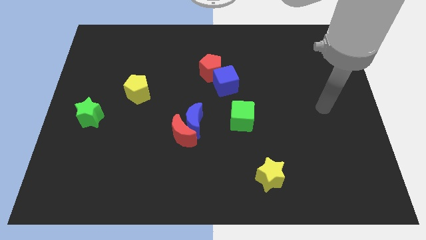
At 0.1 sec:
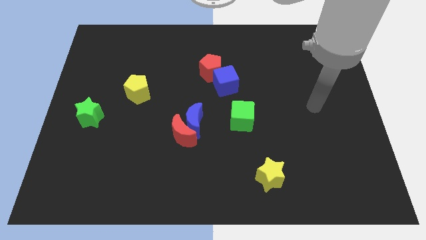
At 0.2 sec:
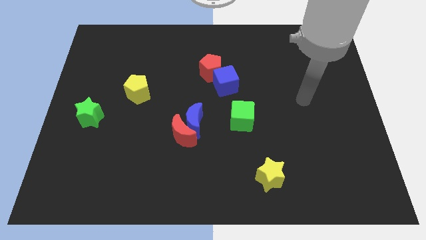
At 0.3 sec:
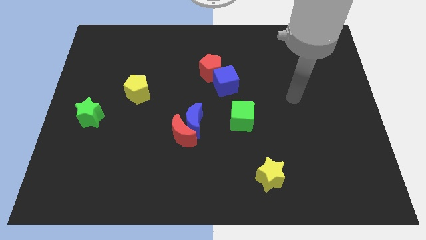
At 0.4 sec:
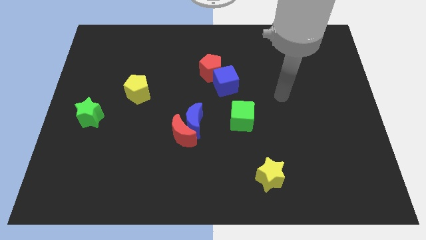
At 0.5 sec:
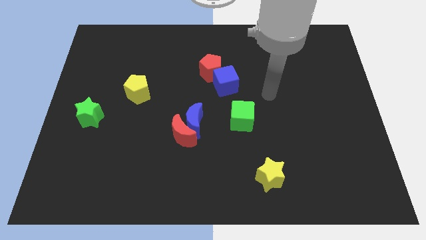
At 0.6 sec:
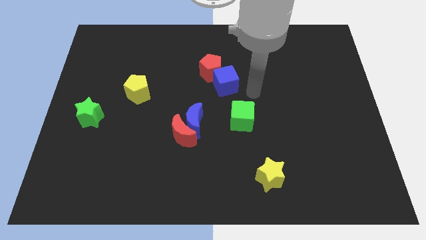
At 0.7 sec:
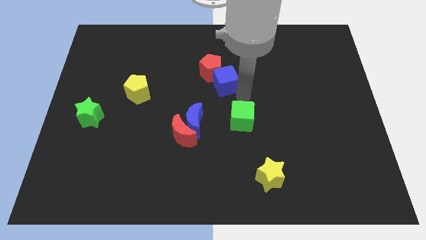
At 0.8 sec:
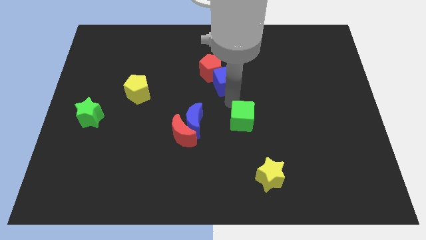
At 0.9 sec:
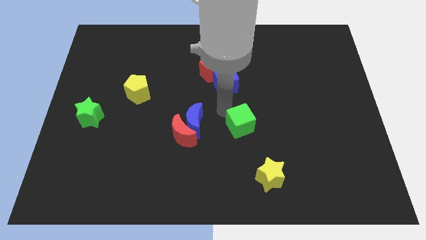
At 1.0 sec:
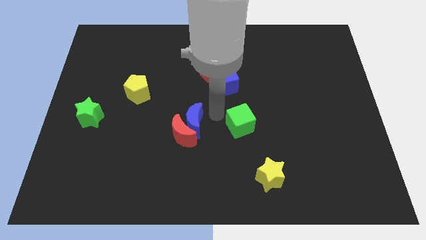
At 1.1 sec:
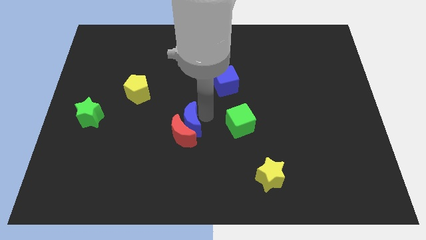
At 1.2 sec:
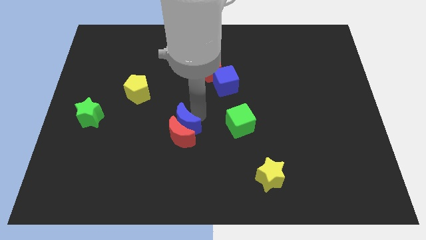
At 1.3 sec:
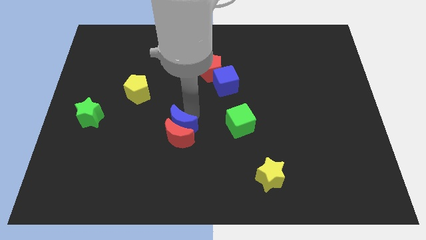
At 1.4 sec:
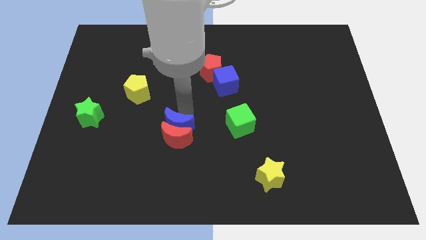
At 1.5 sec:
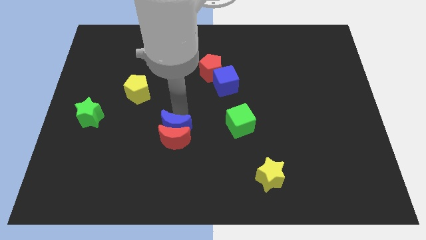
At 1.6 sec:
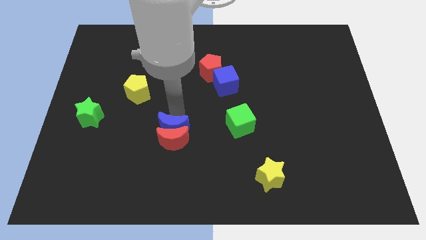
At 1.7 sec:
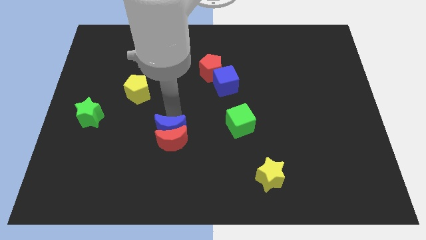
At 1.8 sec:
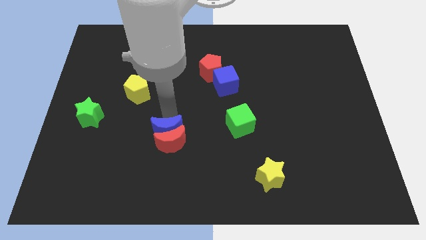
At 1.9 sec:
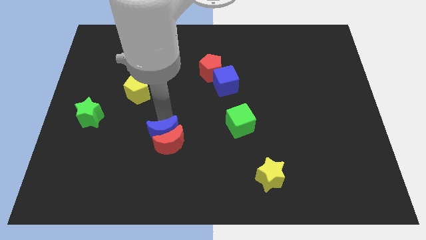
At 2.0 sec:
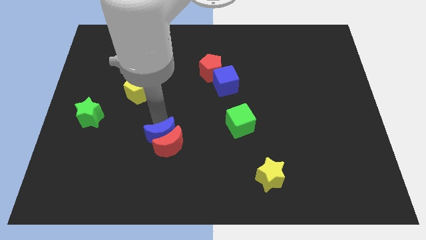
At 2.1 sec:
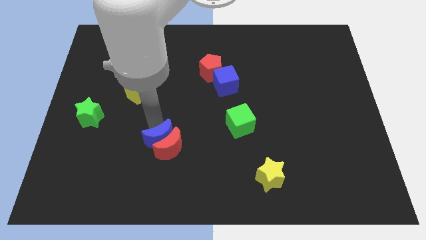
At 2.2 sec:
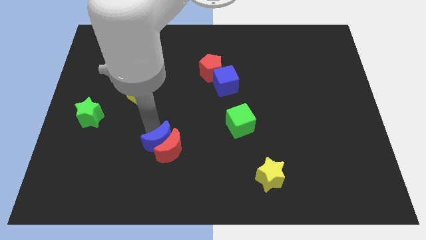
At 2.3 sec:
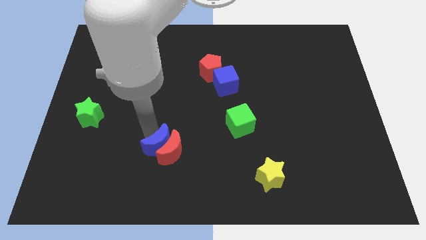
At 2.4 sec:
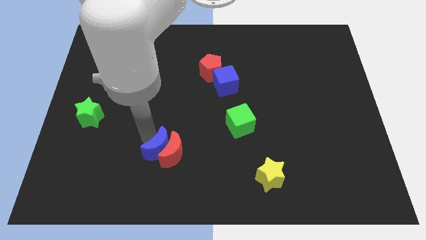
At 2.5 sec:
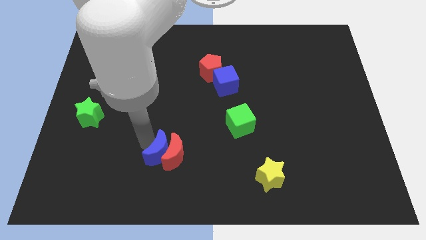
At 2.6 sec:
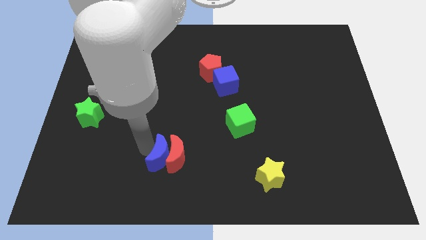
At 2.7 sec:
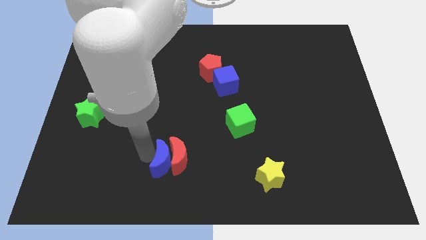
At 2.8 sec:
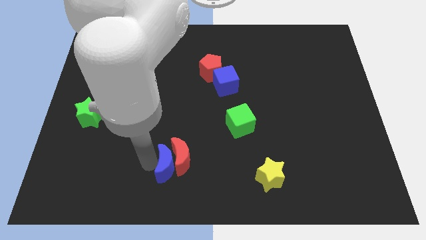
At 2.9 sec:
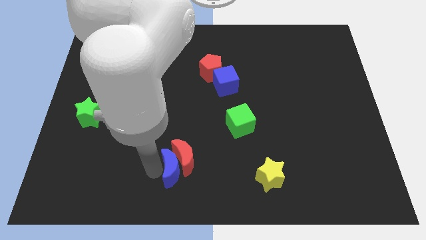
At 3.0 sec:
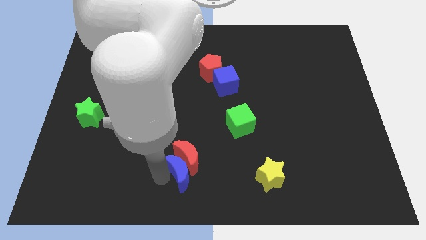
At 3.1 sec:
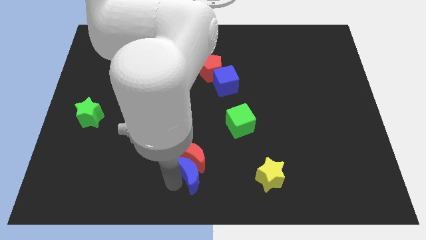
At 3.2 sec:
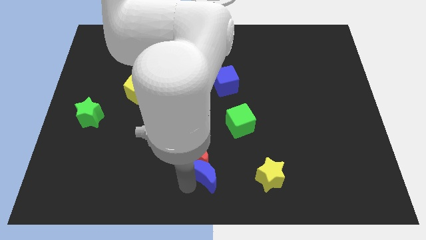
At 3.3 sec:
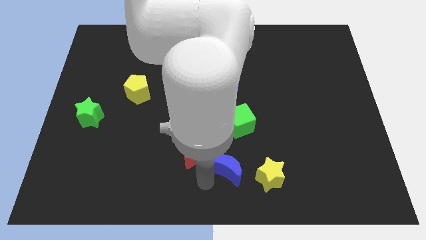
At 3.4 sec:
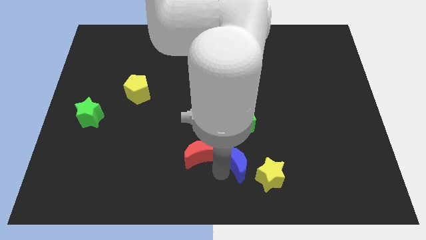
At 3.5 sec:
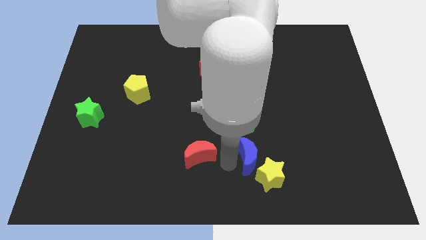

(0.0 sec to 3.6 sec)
move the red moon away from the blue moon

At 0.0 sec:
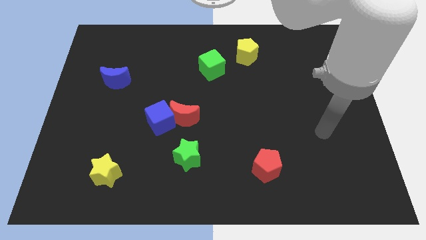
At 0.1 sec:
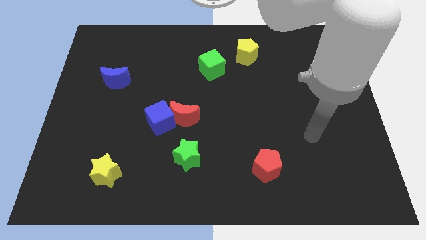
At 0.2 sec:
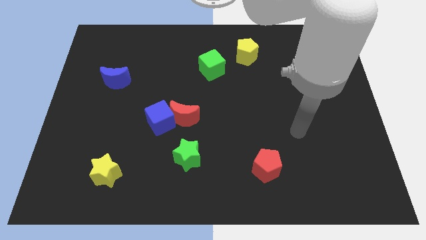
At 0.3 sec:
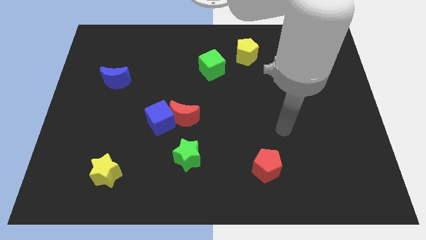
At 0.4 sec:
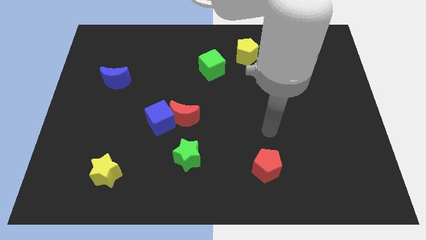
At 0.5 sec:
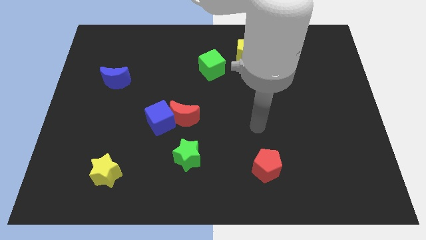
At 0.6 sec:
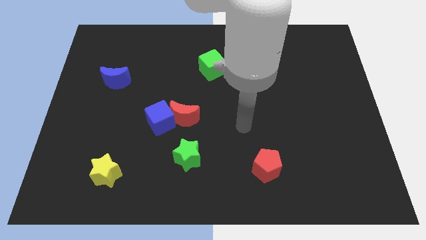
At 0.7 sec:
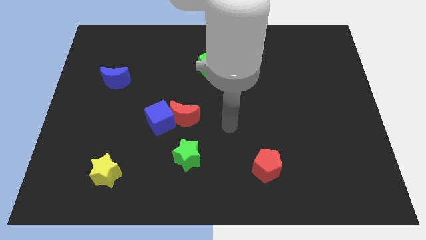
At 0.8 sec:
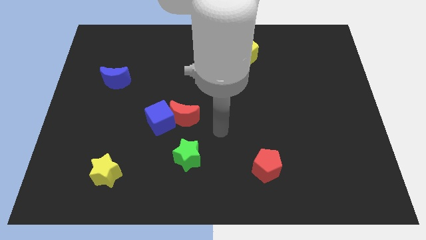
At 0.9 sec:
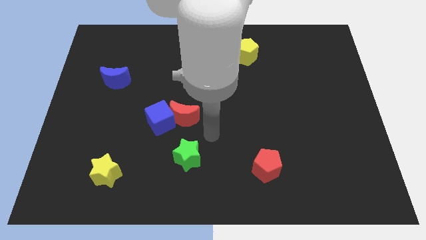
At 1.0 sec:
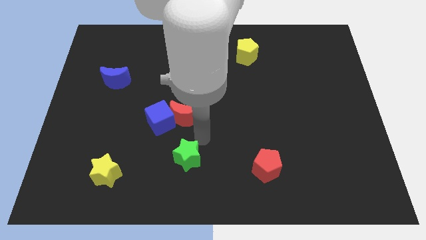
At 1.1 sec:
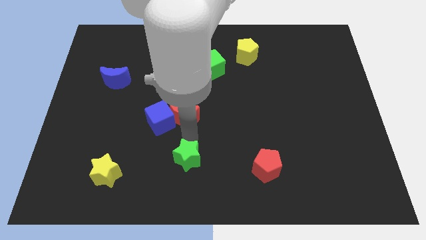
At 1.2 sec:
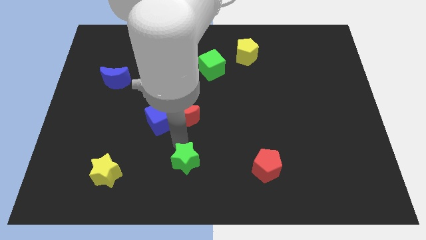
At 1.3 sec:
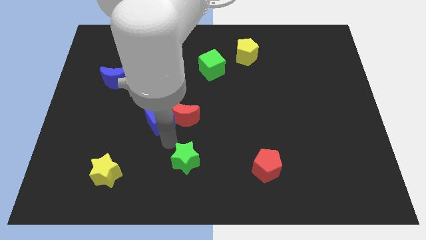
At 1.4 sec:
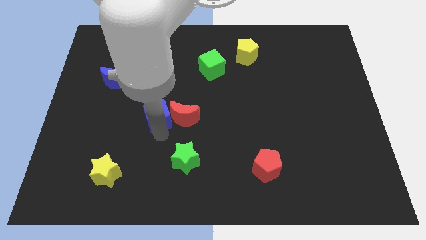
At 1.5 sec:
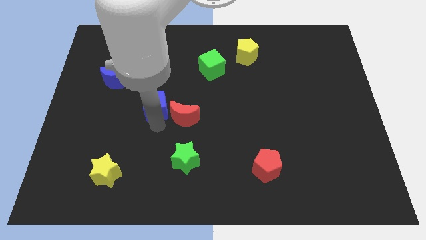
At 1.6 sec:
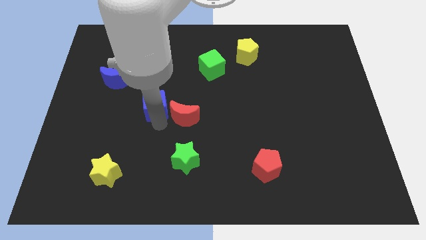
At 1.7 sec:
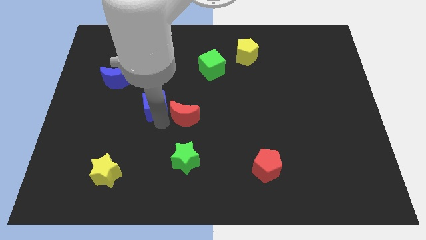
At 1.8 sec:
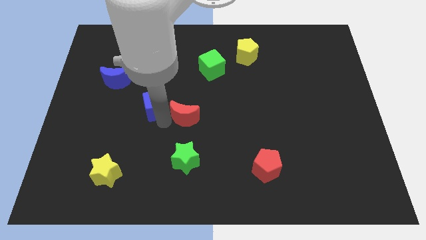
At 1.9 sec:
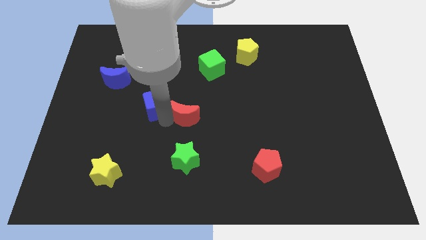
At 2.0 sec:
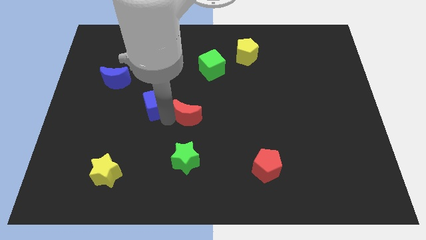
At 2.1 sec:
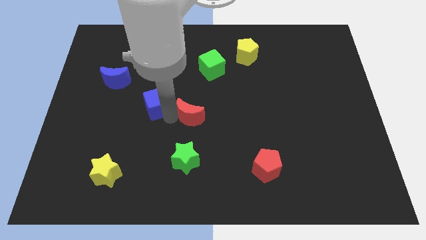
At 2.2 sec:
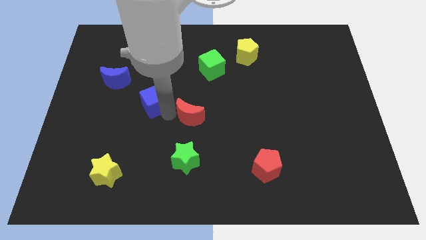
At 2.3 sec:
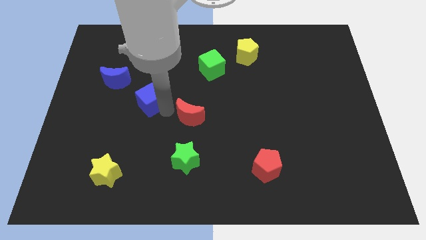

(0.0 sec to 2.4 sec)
separate the red moon from the blue cube

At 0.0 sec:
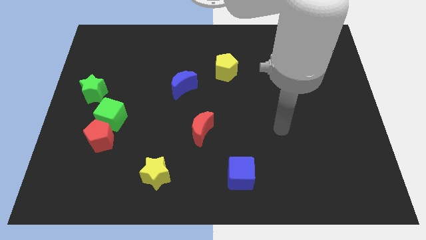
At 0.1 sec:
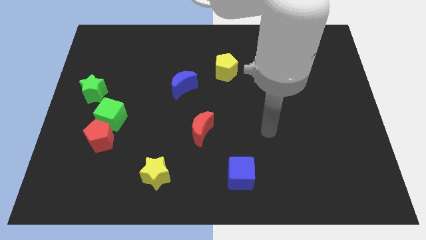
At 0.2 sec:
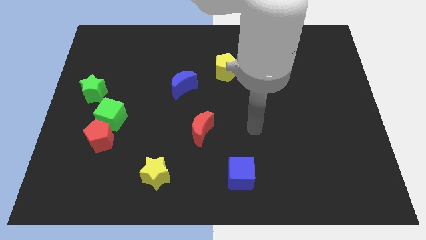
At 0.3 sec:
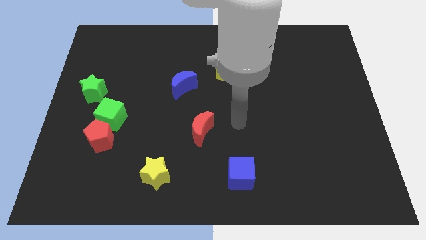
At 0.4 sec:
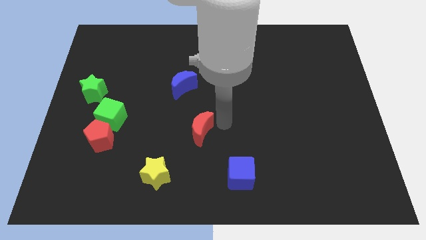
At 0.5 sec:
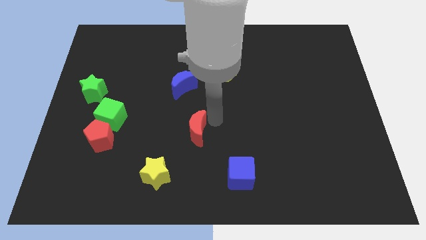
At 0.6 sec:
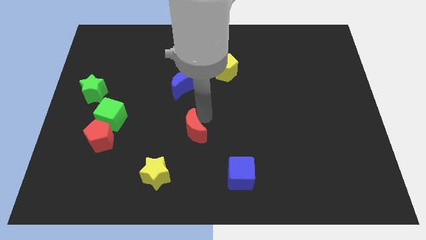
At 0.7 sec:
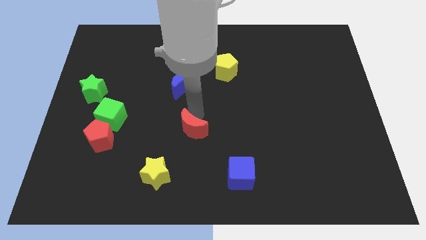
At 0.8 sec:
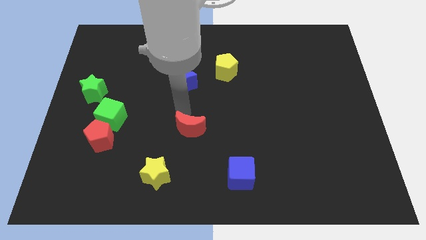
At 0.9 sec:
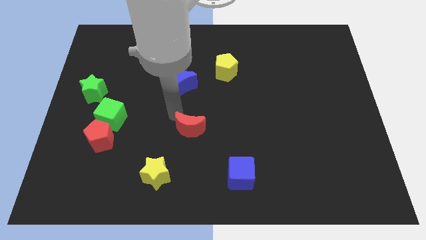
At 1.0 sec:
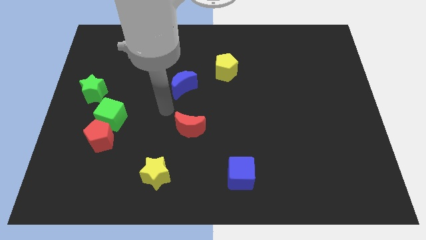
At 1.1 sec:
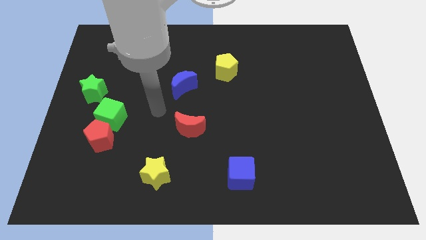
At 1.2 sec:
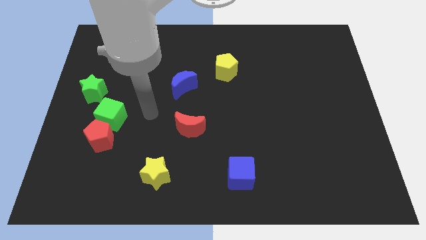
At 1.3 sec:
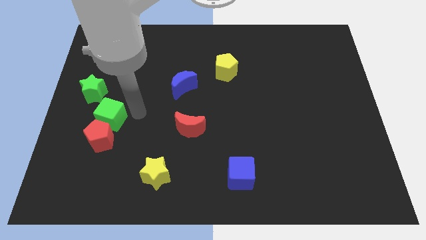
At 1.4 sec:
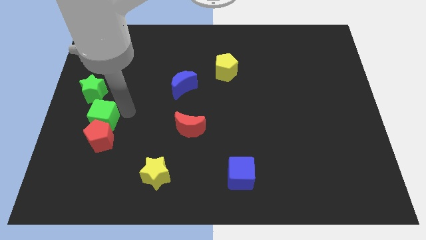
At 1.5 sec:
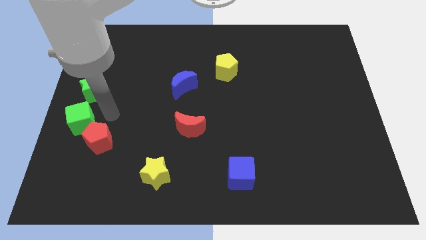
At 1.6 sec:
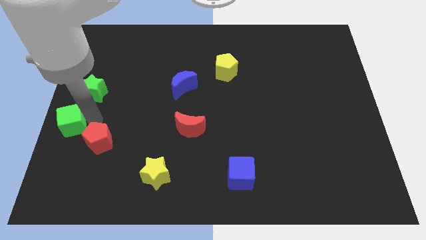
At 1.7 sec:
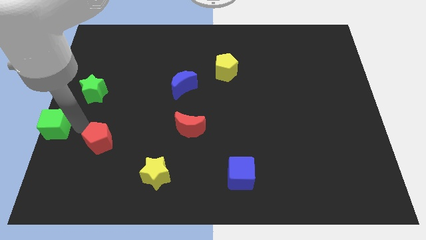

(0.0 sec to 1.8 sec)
move the red pentagon away from the green cube

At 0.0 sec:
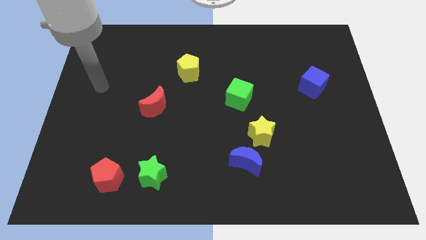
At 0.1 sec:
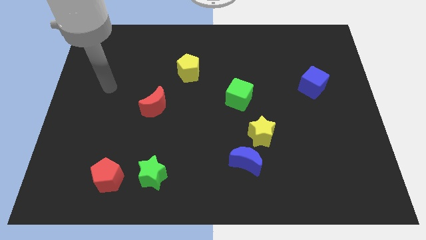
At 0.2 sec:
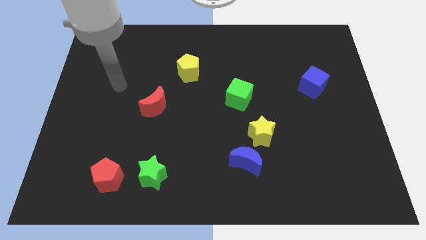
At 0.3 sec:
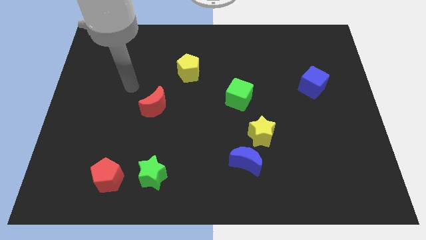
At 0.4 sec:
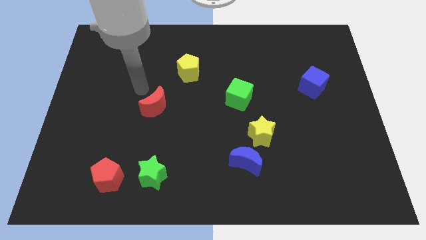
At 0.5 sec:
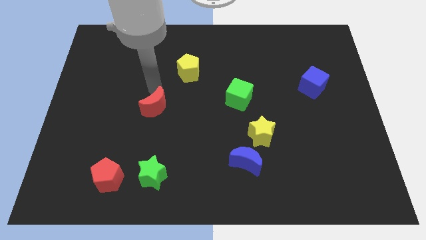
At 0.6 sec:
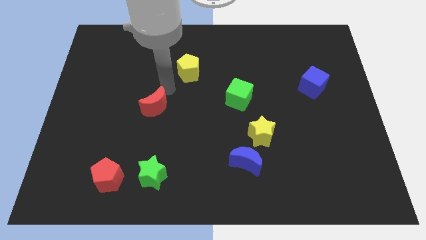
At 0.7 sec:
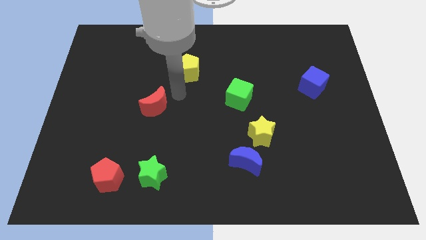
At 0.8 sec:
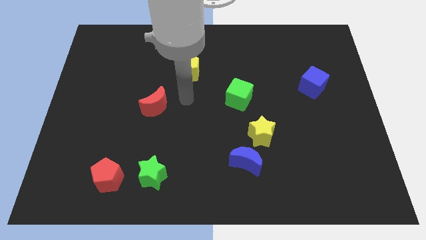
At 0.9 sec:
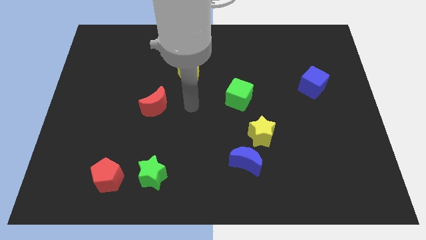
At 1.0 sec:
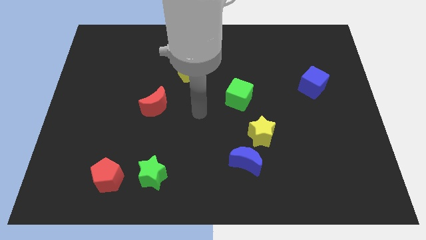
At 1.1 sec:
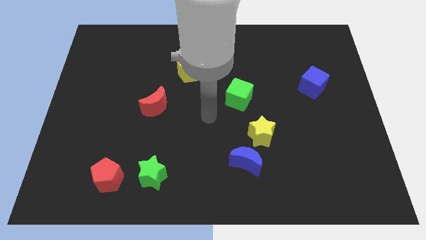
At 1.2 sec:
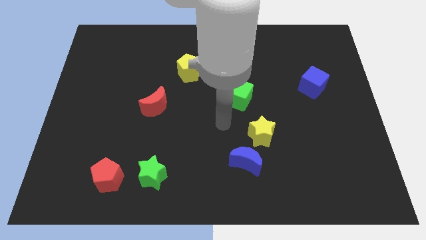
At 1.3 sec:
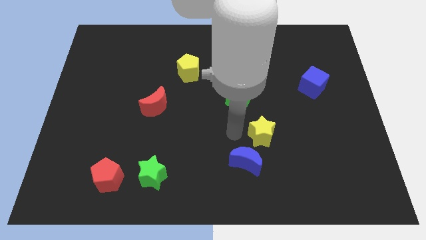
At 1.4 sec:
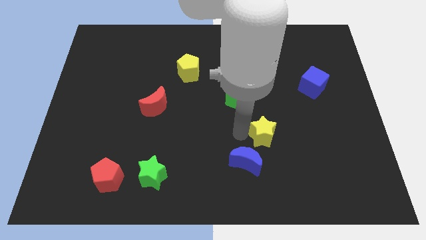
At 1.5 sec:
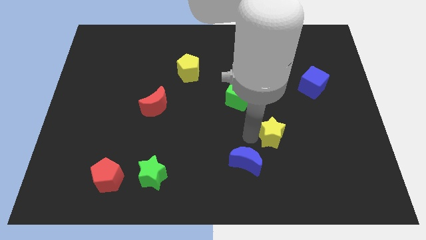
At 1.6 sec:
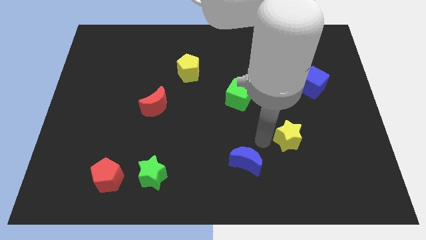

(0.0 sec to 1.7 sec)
pull the blue moon apart from the yellow star
